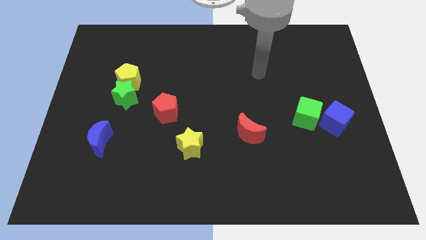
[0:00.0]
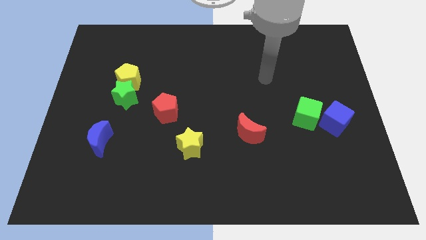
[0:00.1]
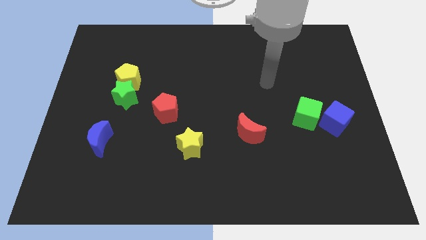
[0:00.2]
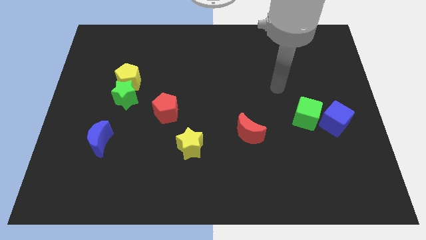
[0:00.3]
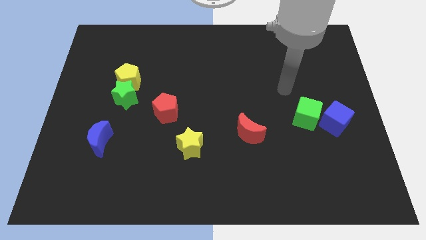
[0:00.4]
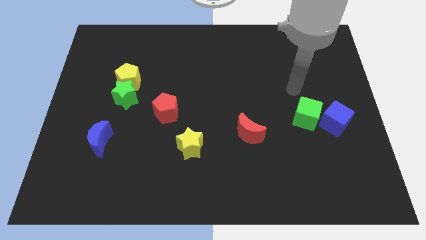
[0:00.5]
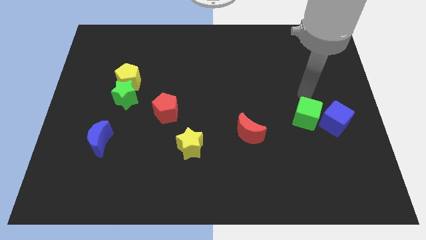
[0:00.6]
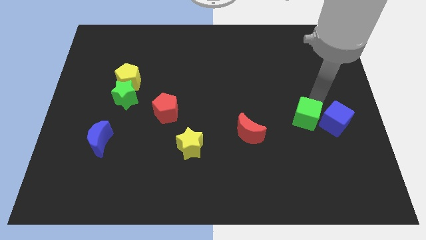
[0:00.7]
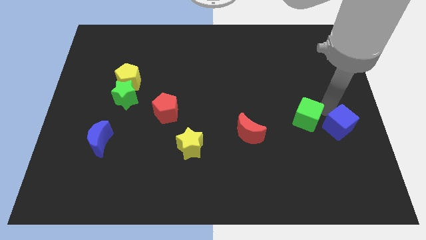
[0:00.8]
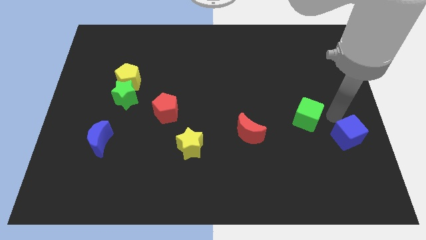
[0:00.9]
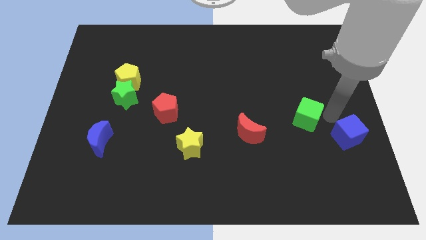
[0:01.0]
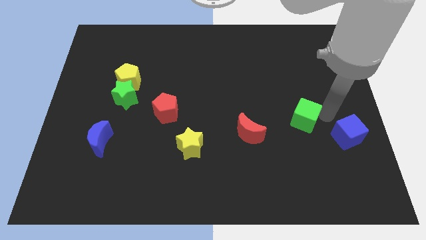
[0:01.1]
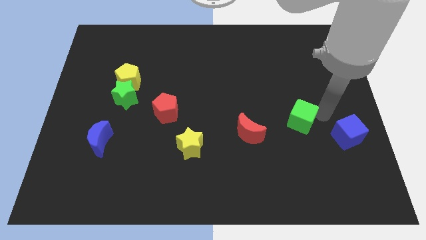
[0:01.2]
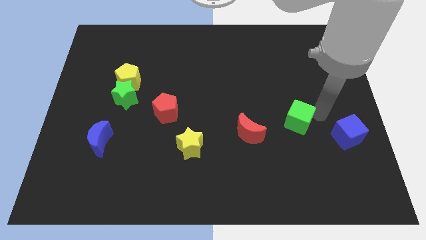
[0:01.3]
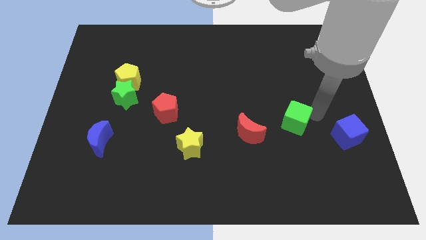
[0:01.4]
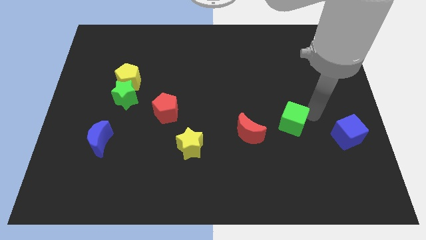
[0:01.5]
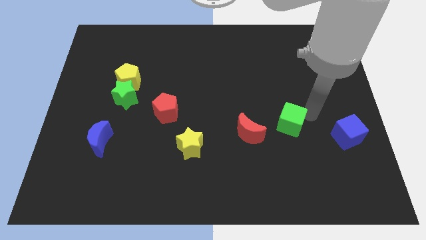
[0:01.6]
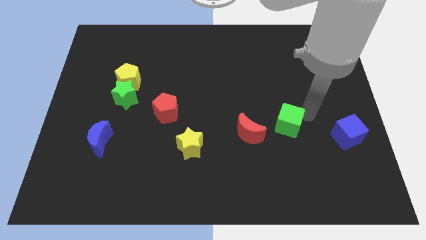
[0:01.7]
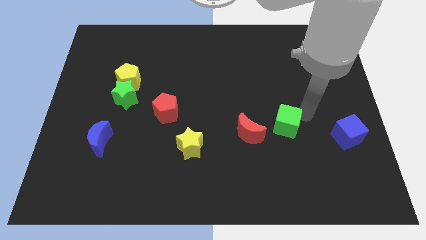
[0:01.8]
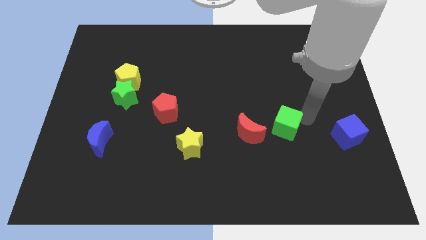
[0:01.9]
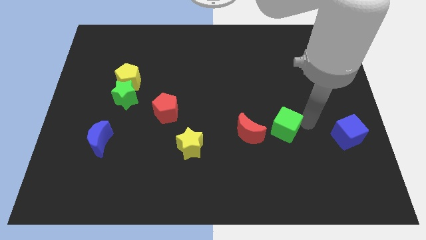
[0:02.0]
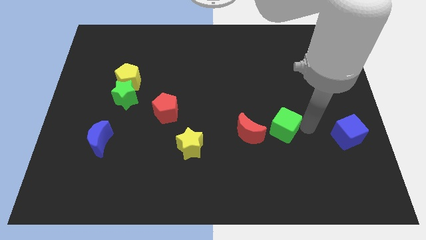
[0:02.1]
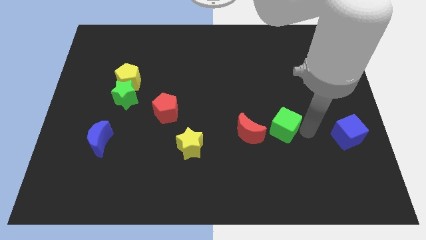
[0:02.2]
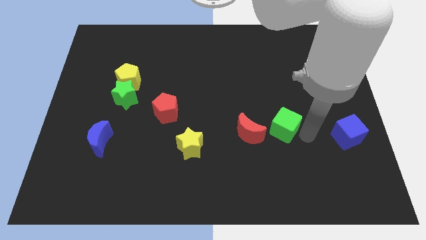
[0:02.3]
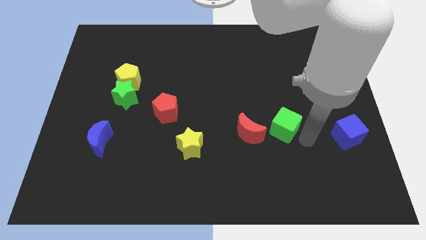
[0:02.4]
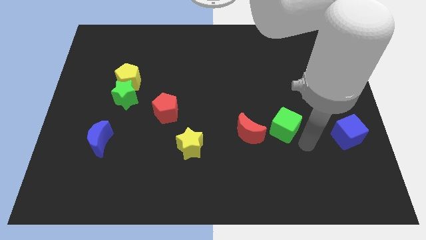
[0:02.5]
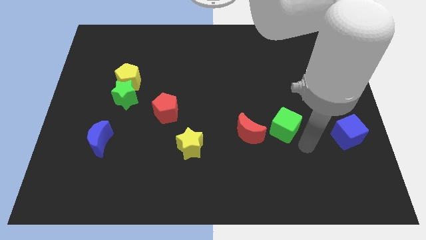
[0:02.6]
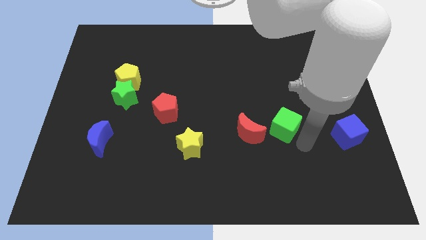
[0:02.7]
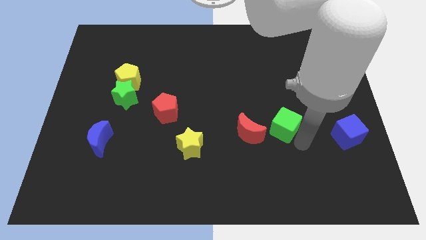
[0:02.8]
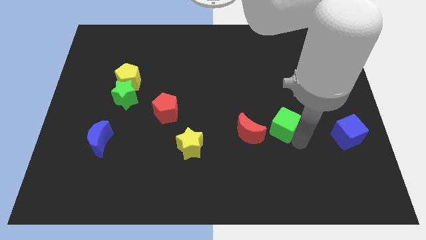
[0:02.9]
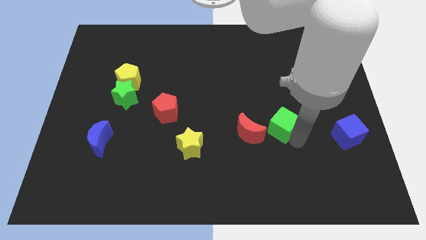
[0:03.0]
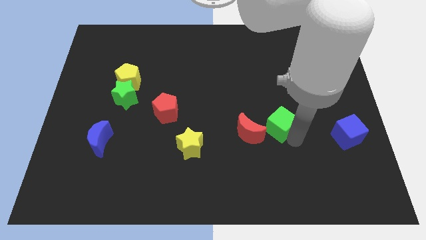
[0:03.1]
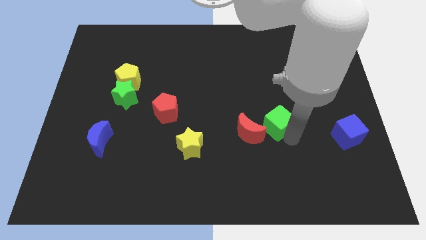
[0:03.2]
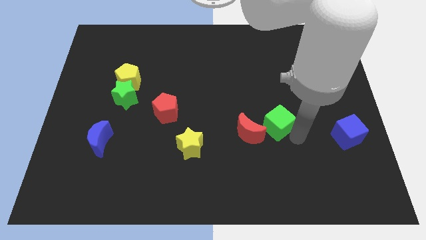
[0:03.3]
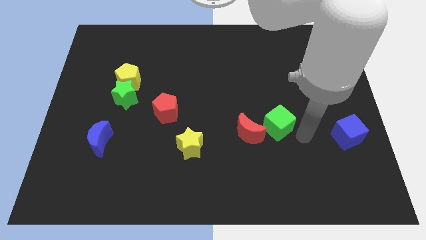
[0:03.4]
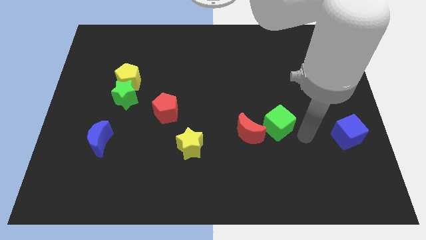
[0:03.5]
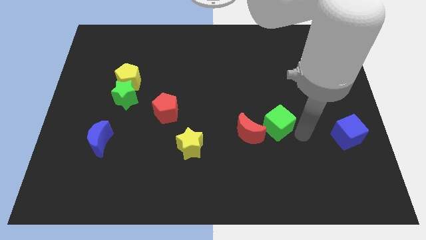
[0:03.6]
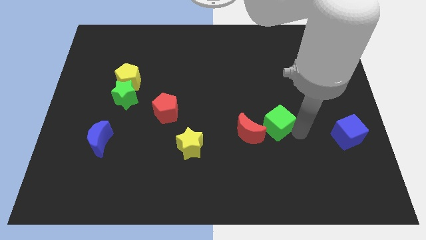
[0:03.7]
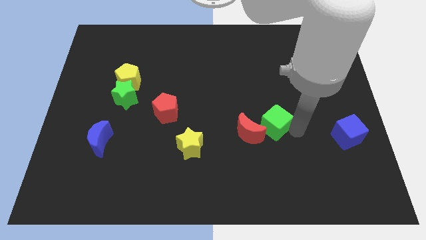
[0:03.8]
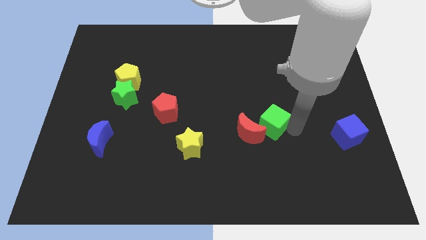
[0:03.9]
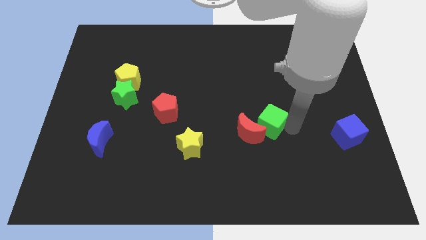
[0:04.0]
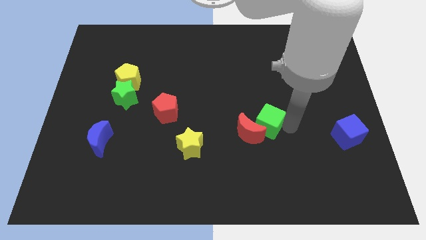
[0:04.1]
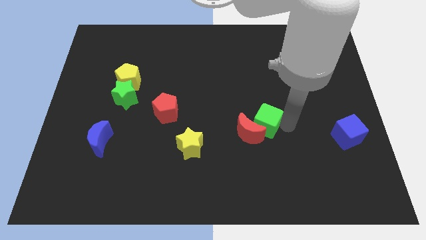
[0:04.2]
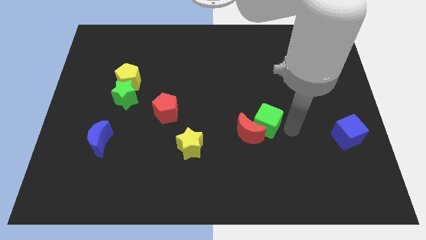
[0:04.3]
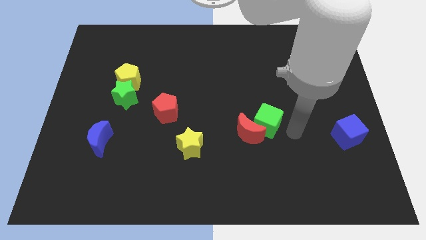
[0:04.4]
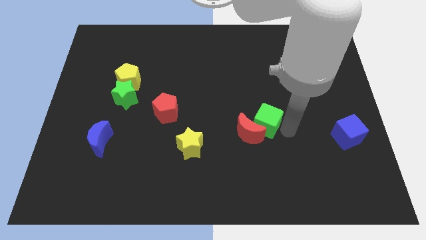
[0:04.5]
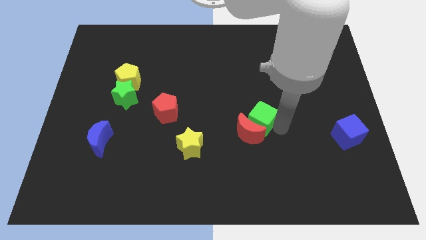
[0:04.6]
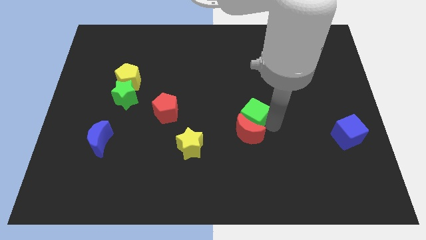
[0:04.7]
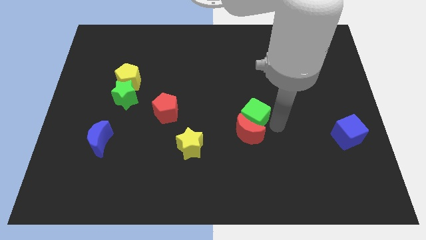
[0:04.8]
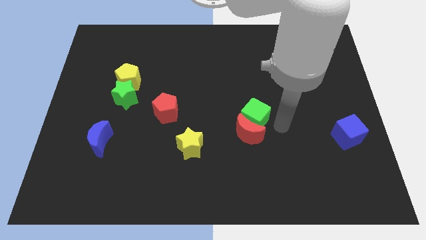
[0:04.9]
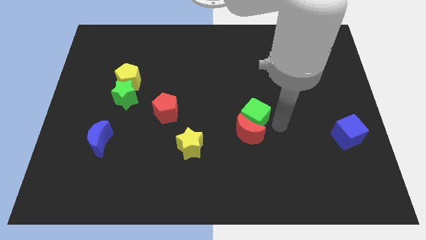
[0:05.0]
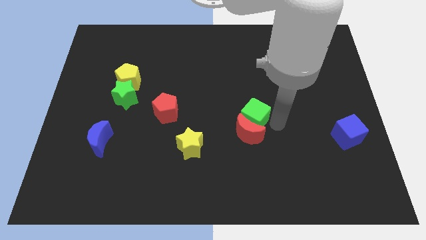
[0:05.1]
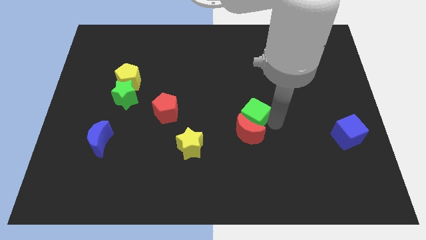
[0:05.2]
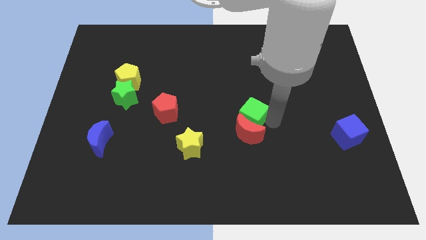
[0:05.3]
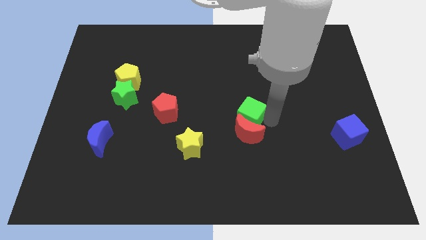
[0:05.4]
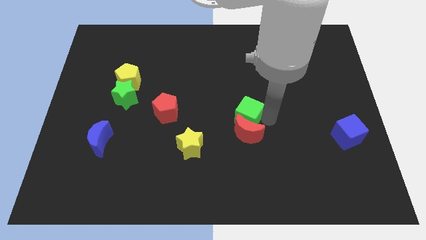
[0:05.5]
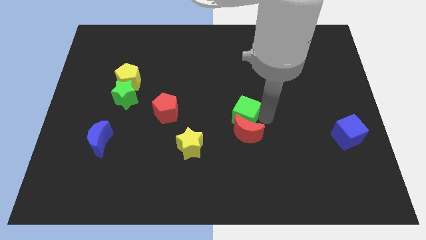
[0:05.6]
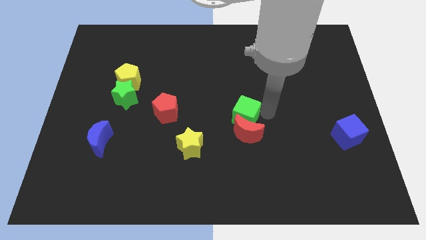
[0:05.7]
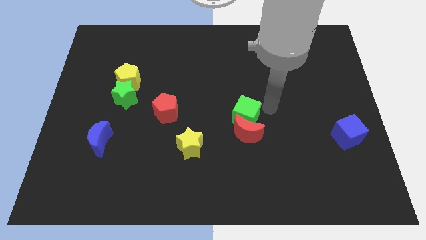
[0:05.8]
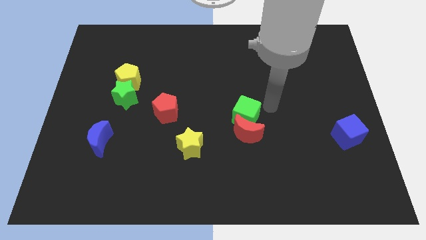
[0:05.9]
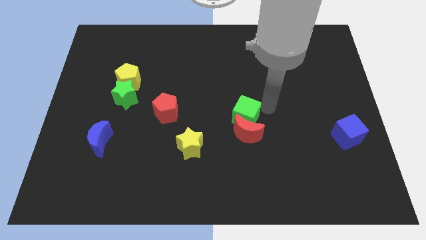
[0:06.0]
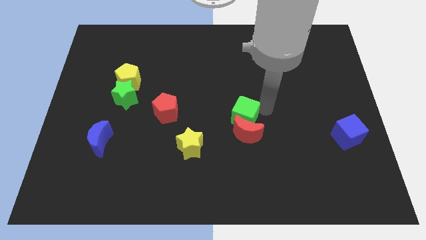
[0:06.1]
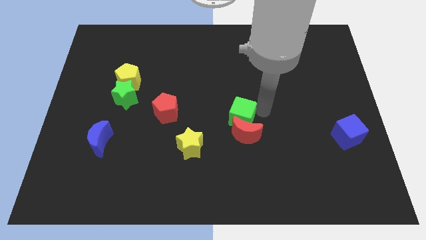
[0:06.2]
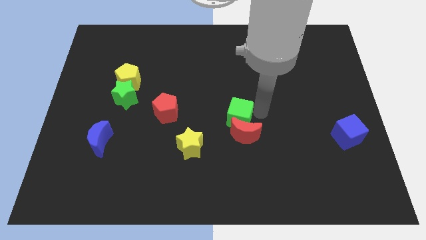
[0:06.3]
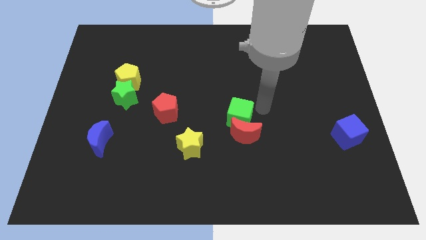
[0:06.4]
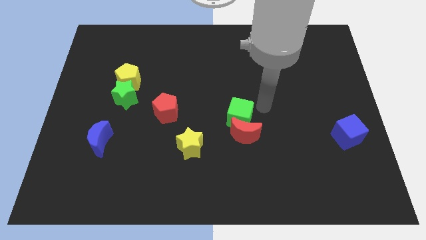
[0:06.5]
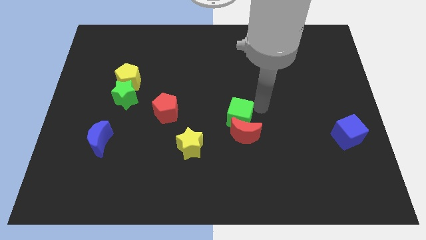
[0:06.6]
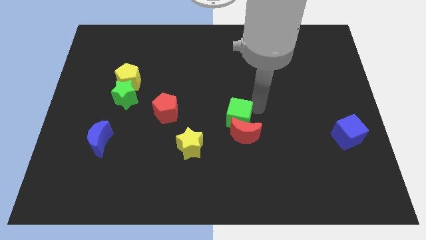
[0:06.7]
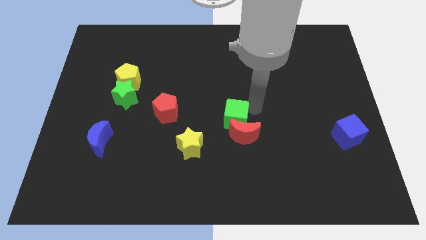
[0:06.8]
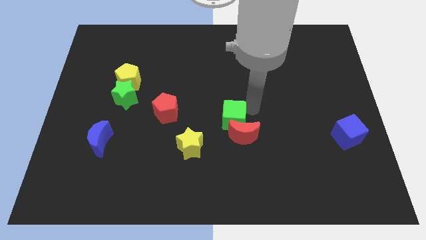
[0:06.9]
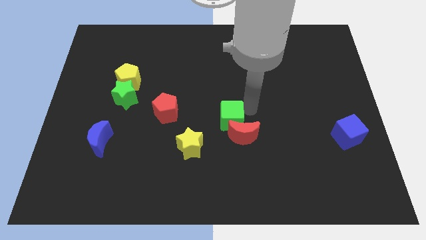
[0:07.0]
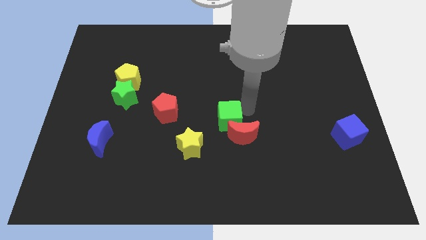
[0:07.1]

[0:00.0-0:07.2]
slide the green cube left of the red moon
